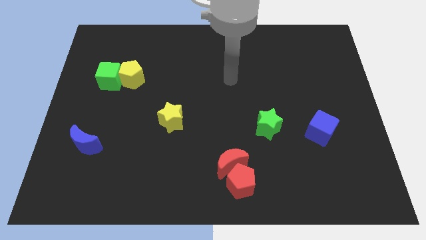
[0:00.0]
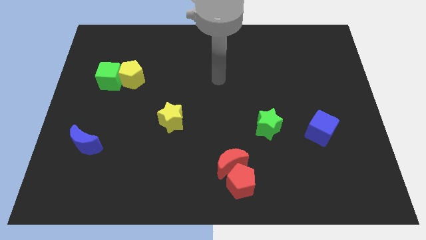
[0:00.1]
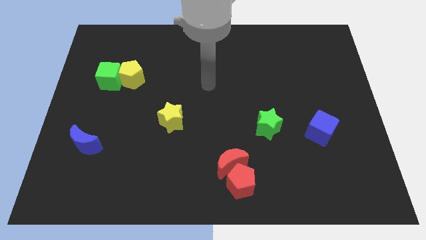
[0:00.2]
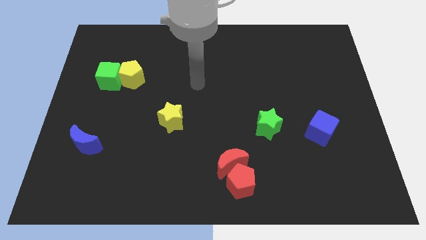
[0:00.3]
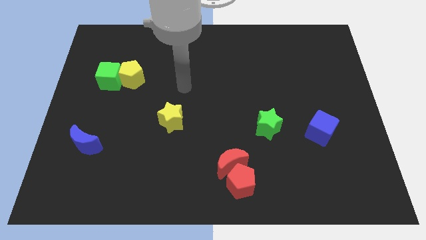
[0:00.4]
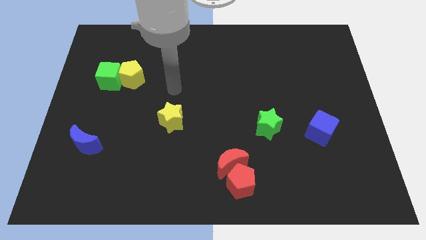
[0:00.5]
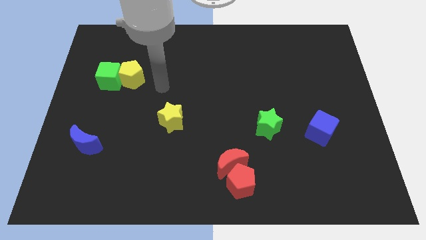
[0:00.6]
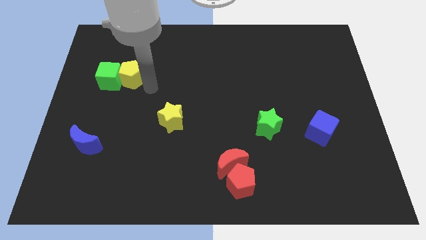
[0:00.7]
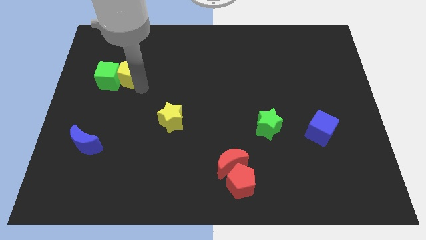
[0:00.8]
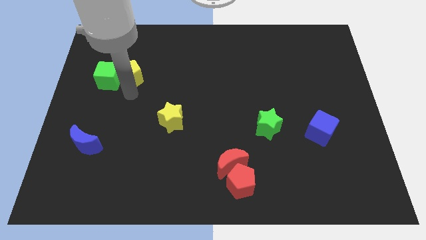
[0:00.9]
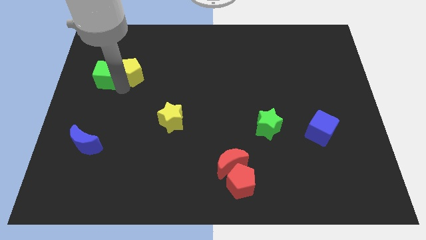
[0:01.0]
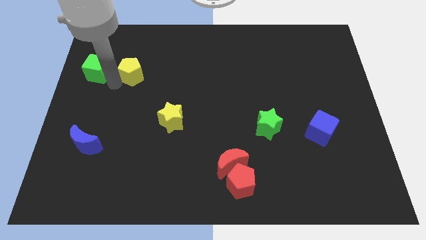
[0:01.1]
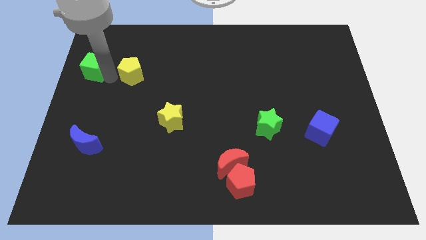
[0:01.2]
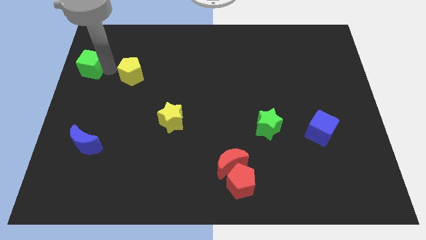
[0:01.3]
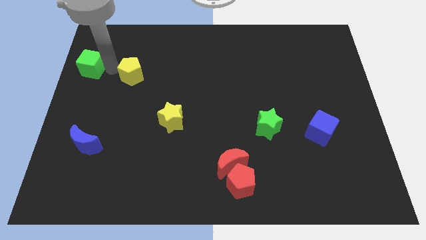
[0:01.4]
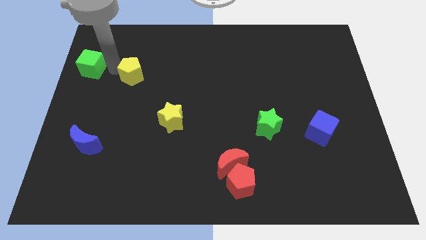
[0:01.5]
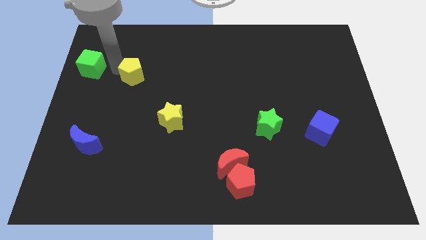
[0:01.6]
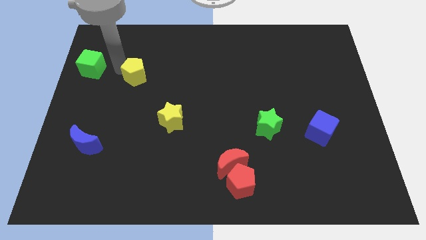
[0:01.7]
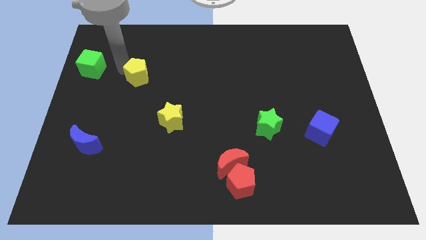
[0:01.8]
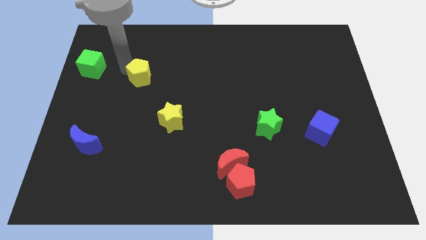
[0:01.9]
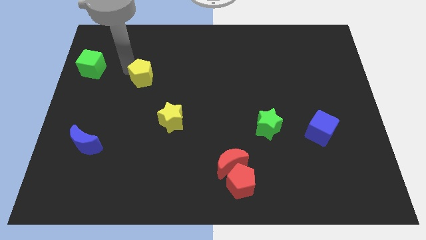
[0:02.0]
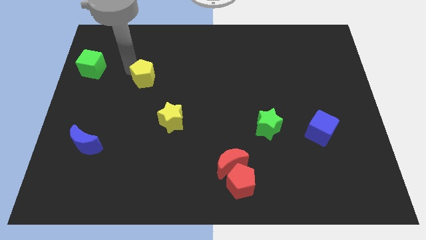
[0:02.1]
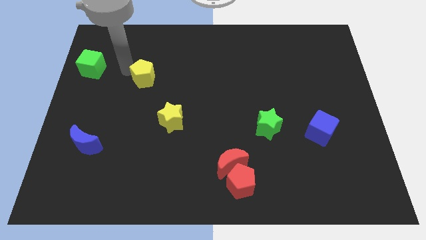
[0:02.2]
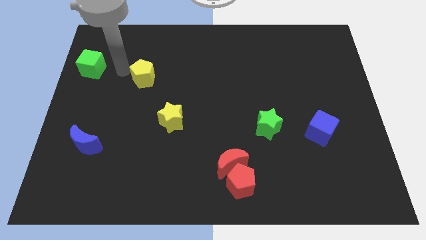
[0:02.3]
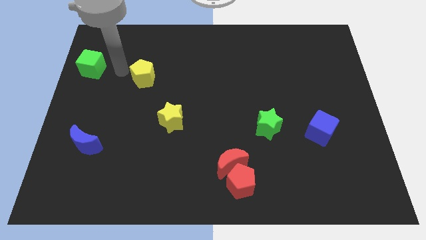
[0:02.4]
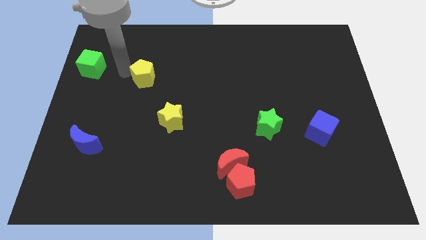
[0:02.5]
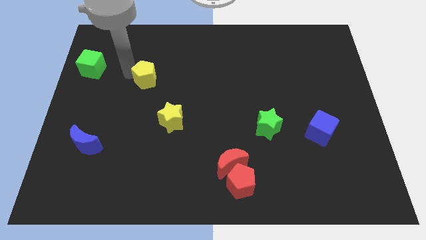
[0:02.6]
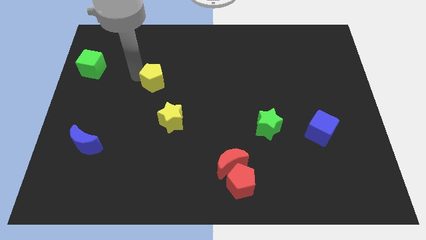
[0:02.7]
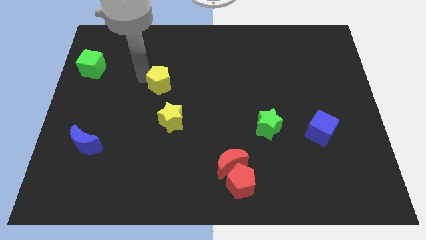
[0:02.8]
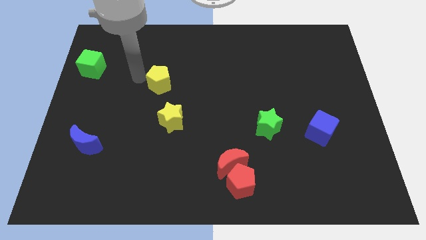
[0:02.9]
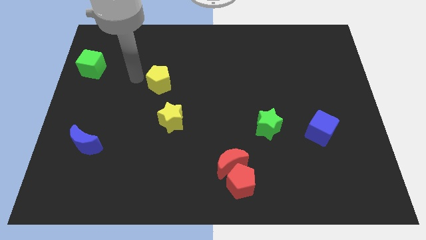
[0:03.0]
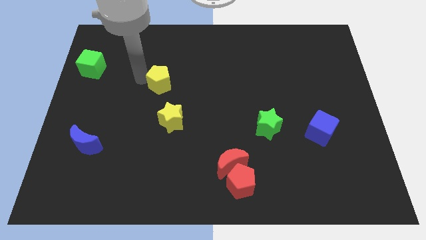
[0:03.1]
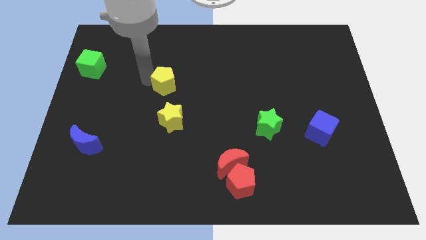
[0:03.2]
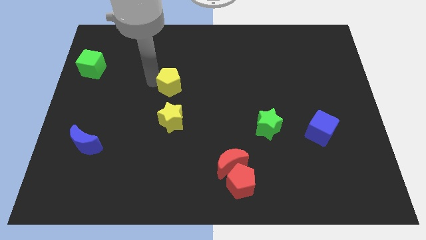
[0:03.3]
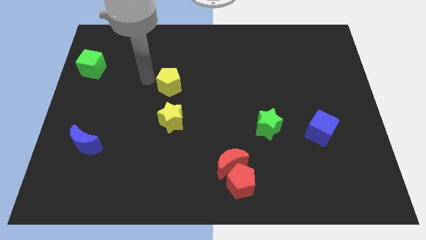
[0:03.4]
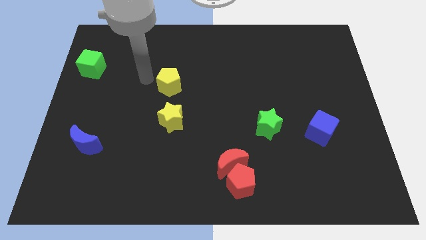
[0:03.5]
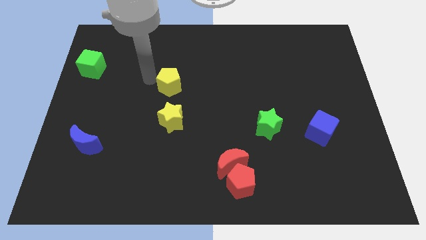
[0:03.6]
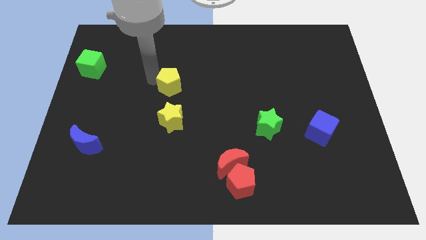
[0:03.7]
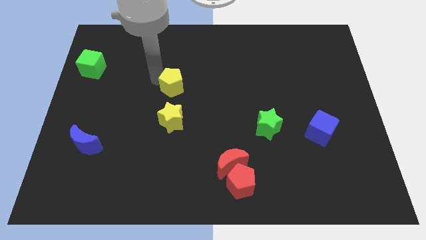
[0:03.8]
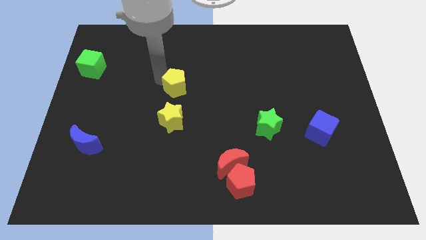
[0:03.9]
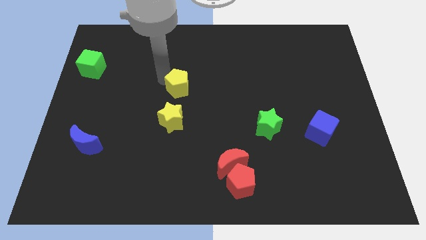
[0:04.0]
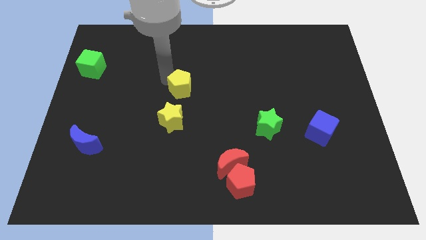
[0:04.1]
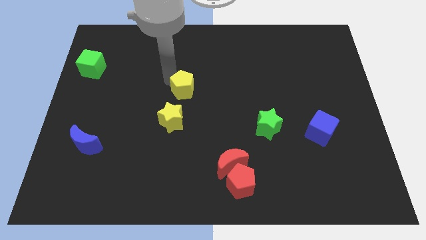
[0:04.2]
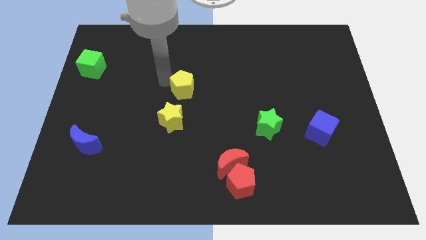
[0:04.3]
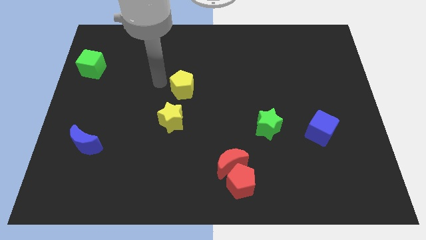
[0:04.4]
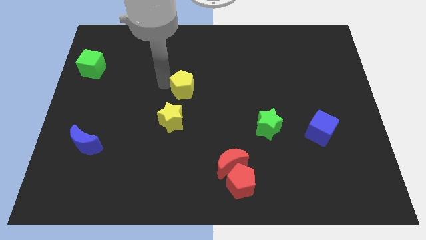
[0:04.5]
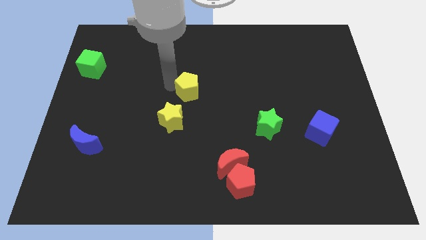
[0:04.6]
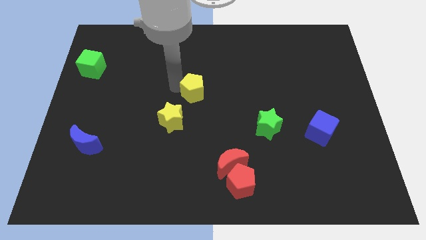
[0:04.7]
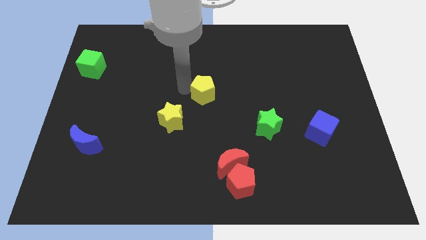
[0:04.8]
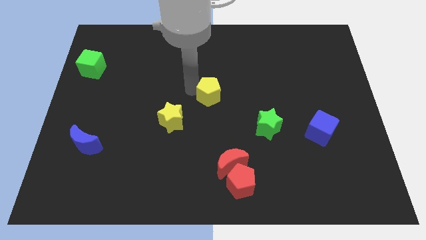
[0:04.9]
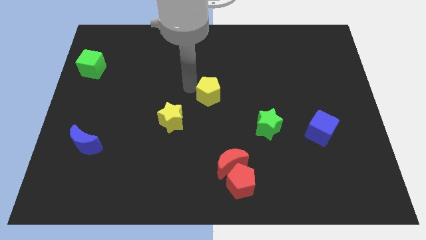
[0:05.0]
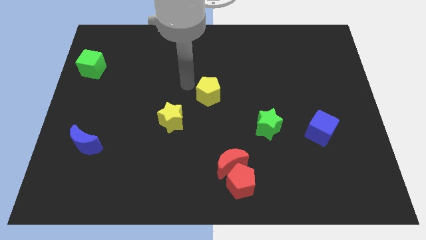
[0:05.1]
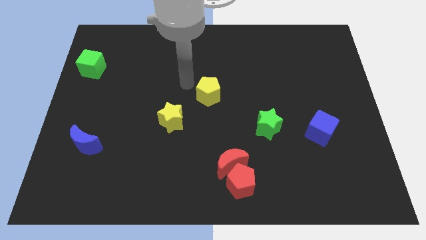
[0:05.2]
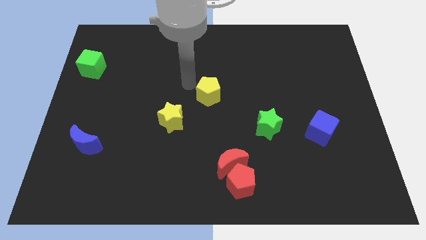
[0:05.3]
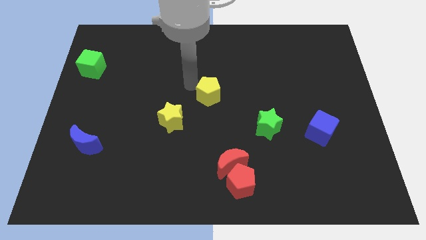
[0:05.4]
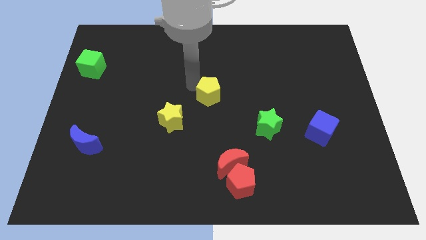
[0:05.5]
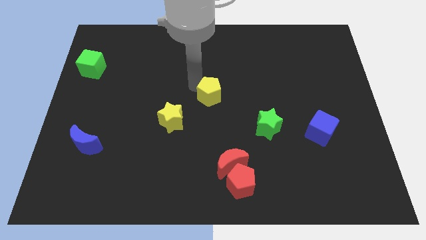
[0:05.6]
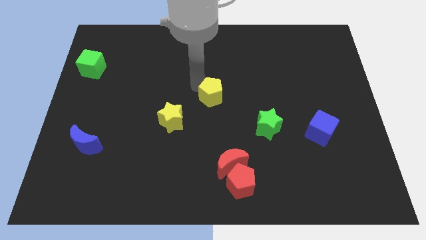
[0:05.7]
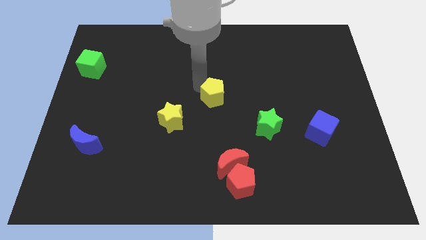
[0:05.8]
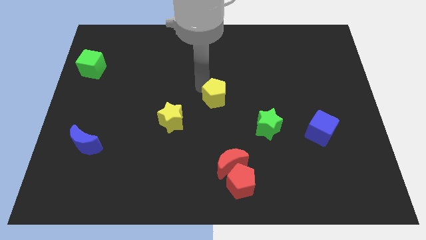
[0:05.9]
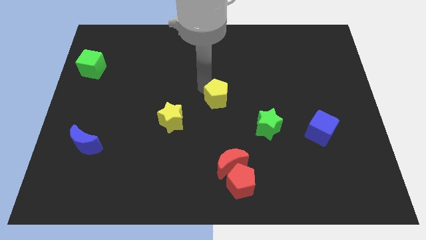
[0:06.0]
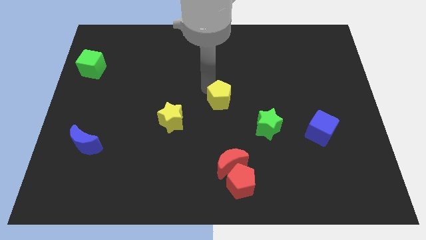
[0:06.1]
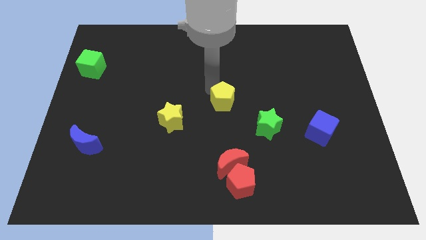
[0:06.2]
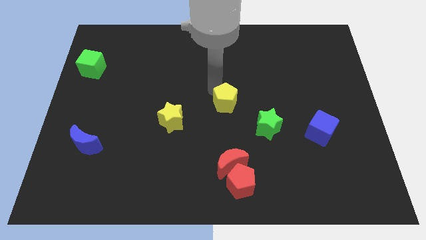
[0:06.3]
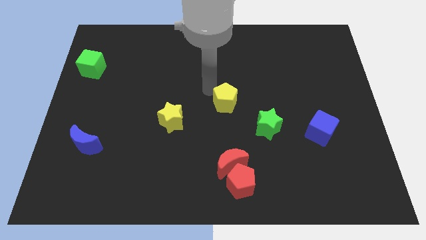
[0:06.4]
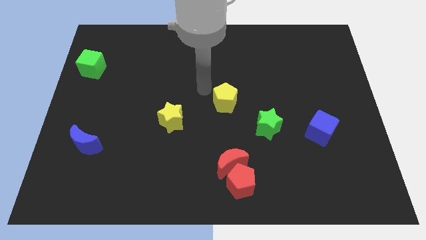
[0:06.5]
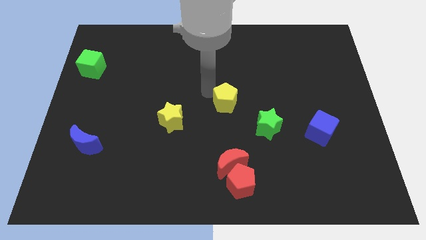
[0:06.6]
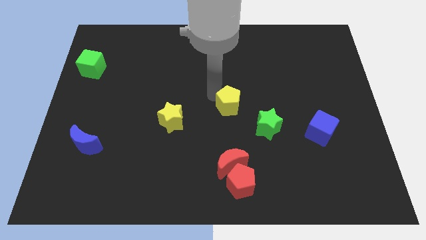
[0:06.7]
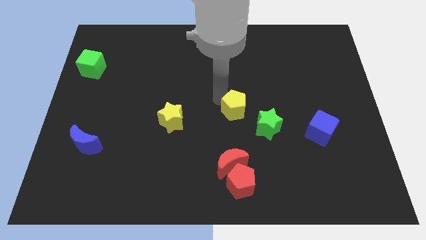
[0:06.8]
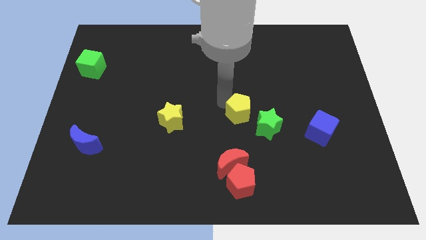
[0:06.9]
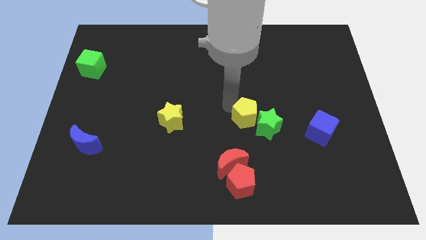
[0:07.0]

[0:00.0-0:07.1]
move the yellow pentagon towards the green star
